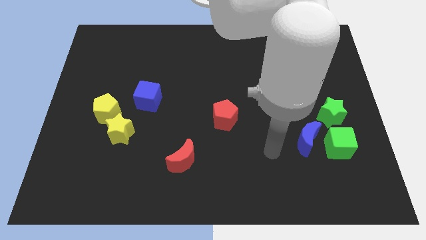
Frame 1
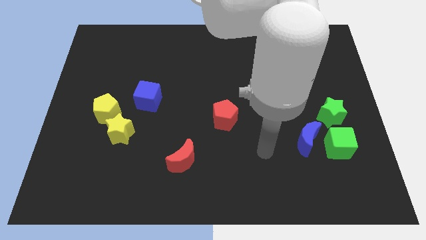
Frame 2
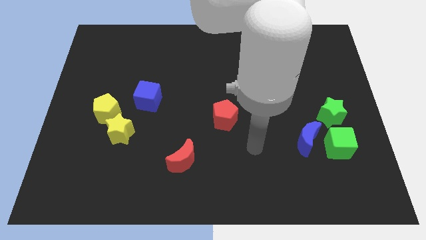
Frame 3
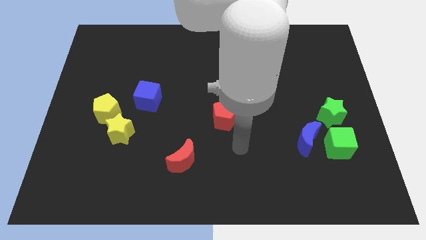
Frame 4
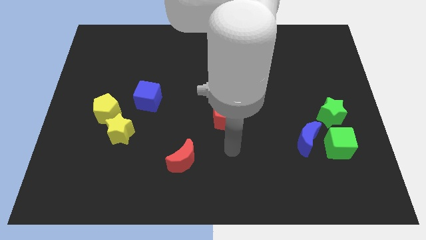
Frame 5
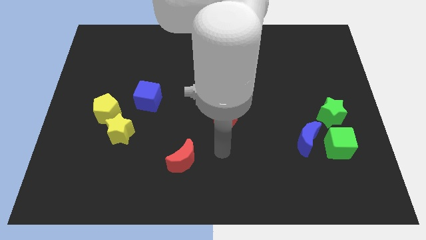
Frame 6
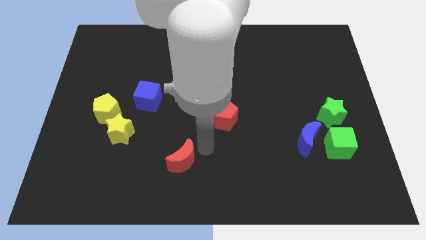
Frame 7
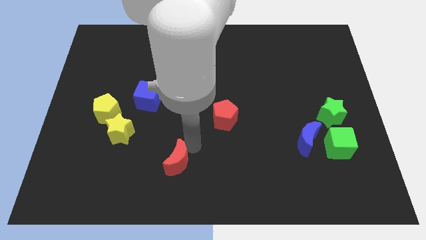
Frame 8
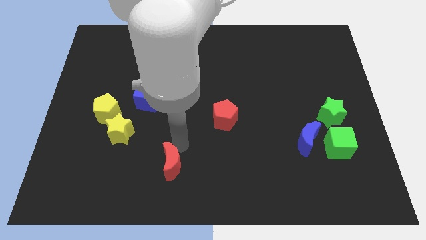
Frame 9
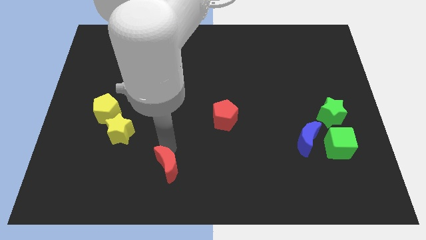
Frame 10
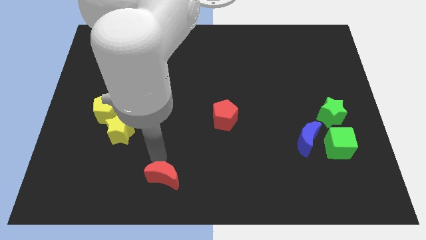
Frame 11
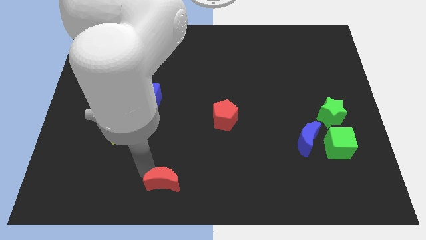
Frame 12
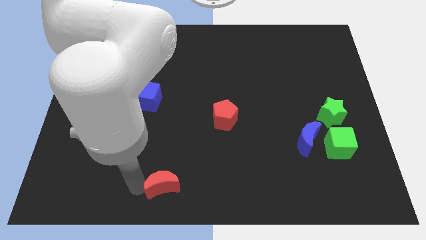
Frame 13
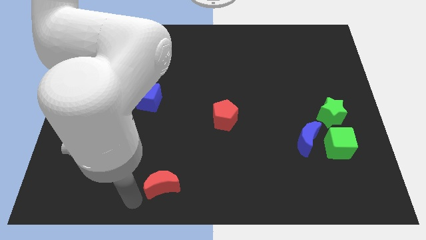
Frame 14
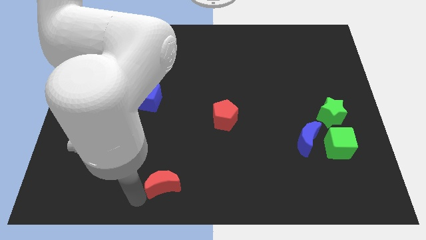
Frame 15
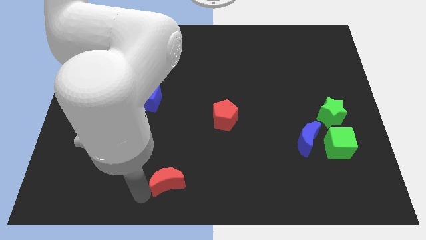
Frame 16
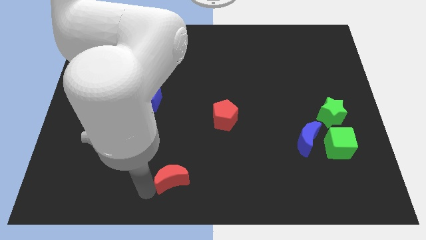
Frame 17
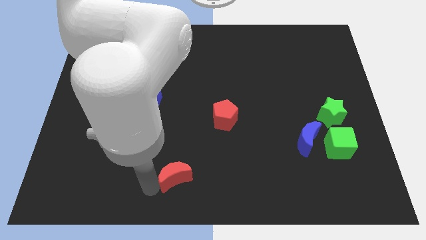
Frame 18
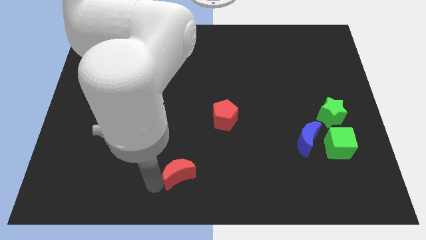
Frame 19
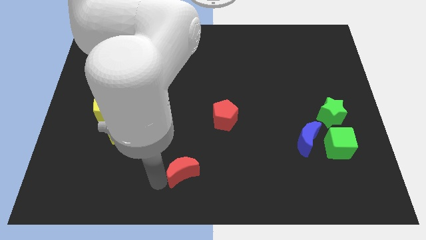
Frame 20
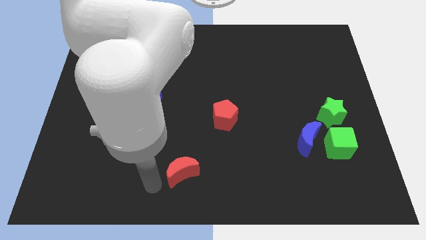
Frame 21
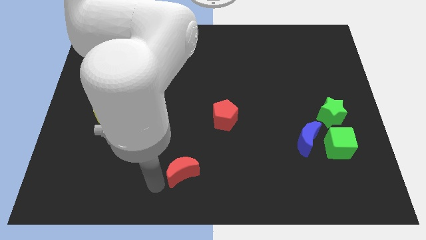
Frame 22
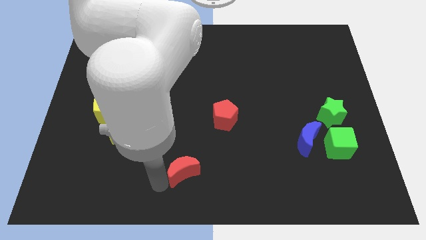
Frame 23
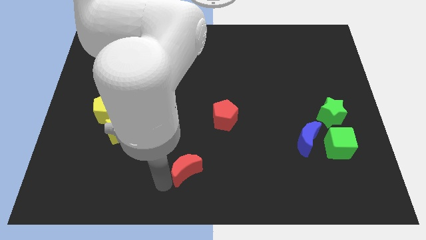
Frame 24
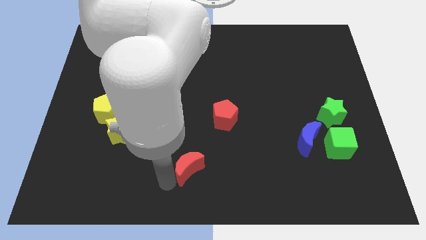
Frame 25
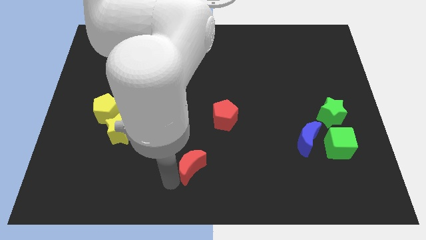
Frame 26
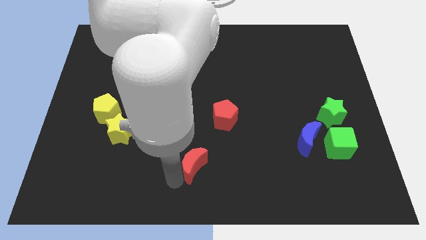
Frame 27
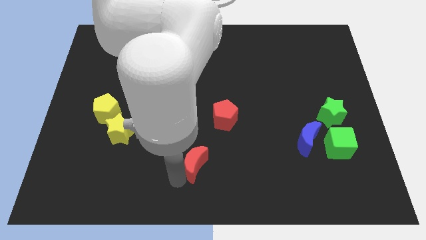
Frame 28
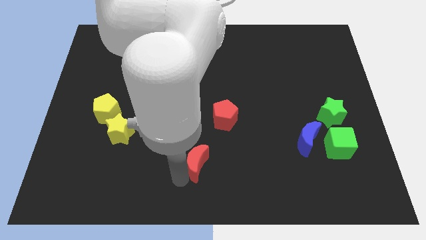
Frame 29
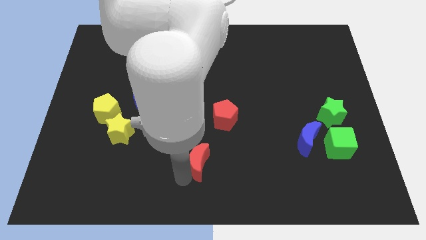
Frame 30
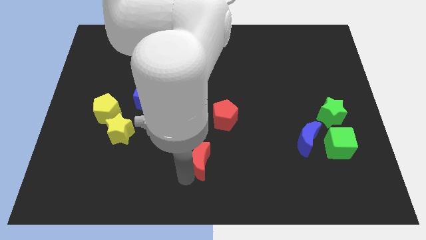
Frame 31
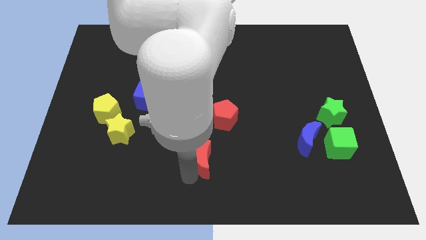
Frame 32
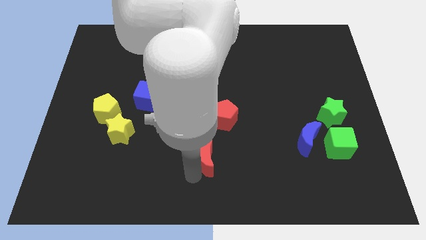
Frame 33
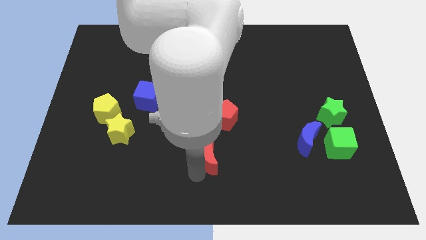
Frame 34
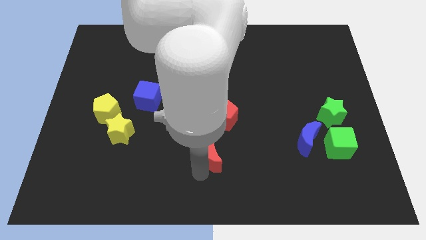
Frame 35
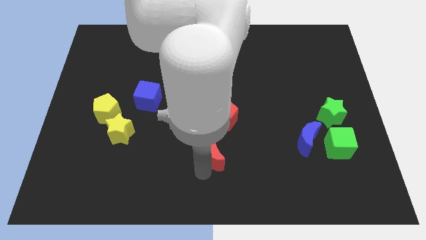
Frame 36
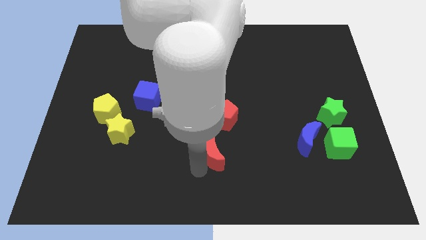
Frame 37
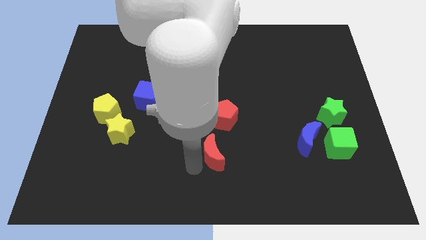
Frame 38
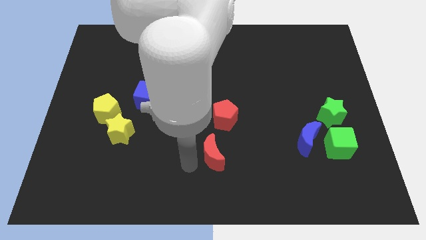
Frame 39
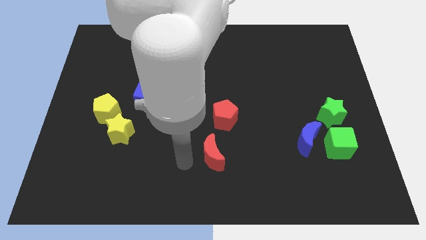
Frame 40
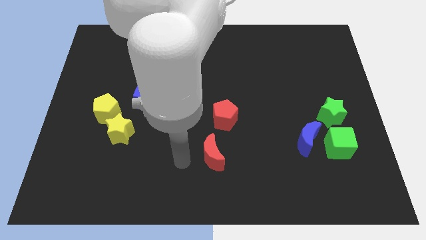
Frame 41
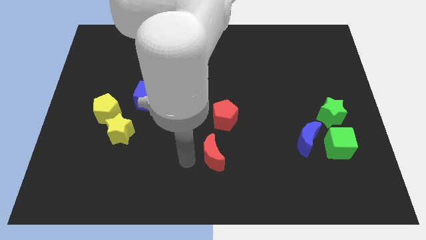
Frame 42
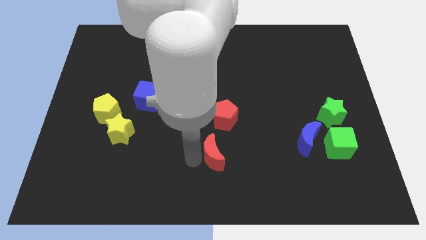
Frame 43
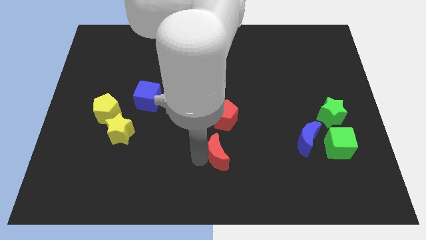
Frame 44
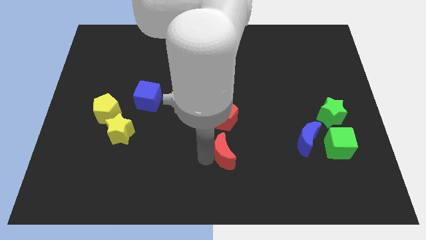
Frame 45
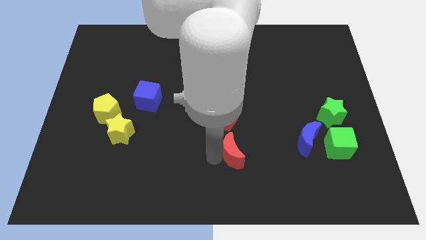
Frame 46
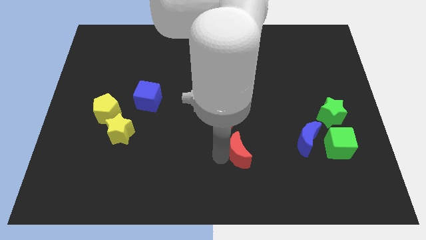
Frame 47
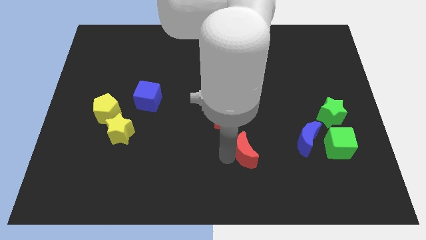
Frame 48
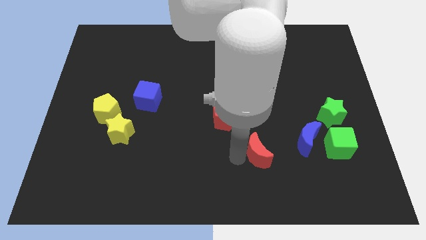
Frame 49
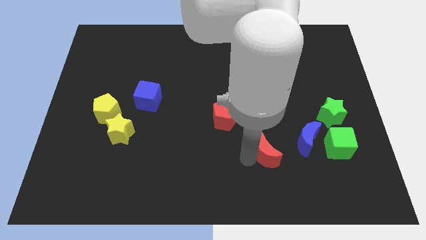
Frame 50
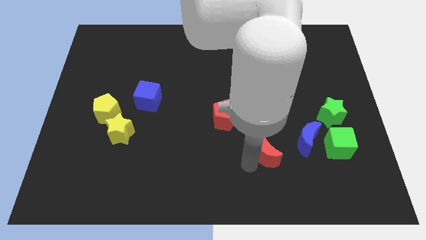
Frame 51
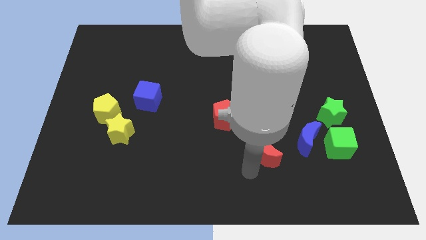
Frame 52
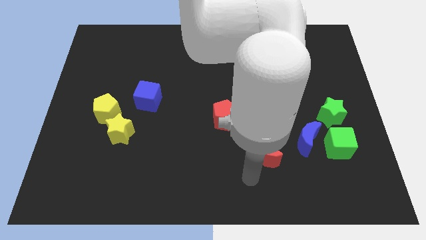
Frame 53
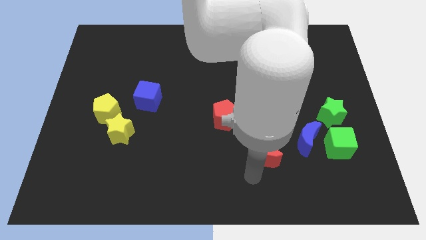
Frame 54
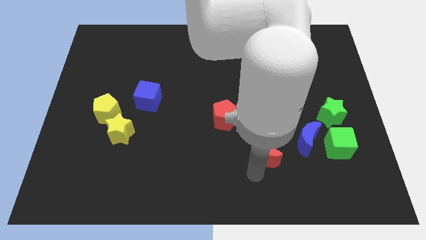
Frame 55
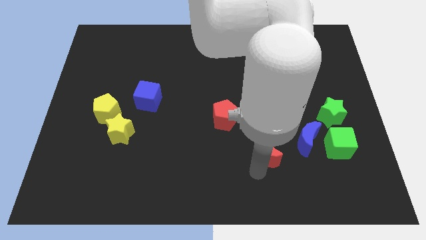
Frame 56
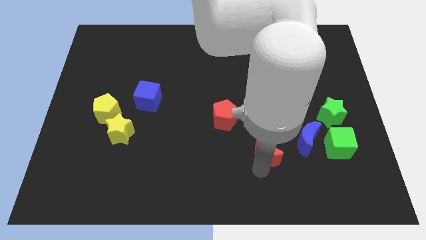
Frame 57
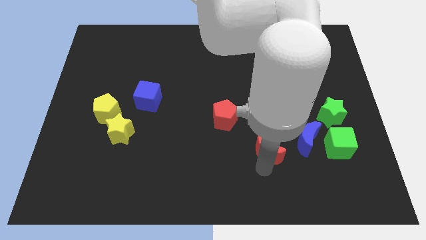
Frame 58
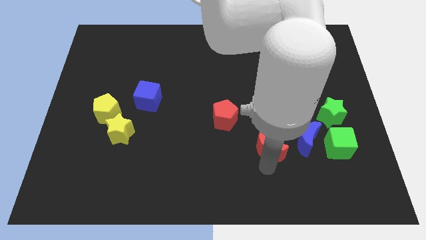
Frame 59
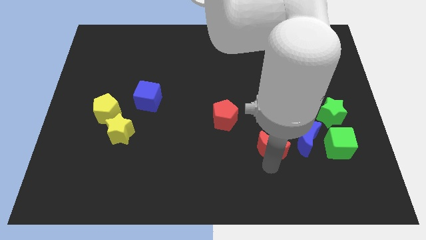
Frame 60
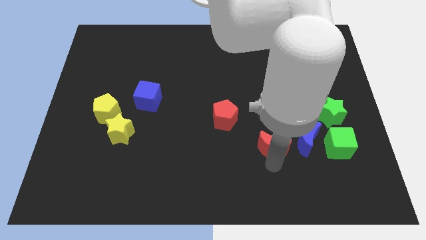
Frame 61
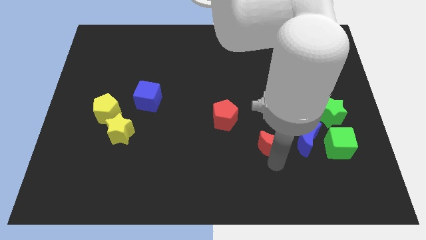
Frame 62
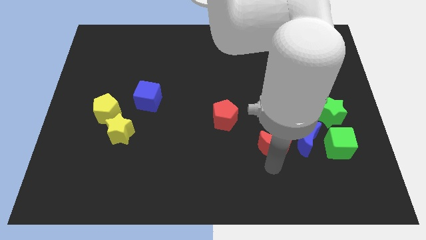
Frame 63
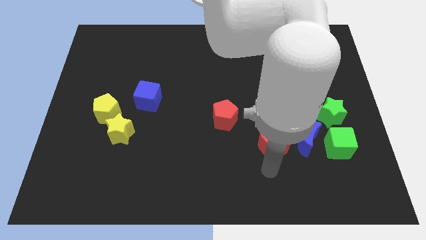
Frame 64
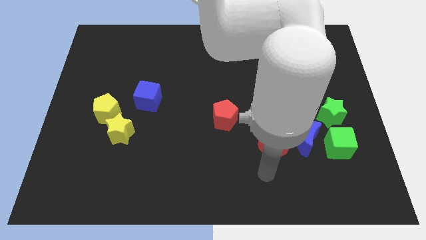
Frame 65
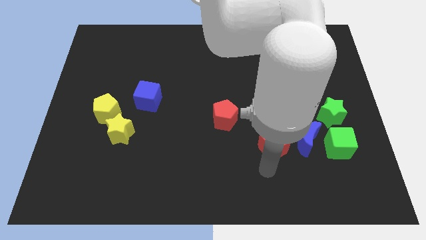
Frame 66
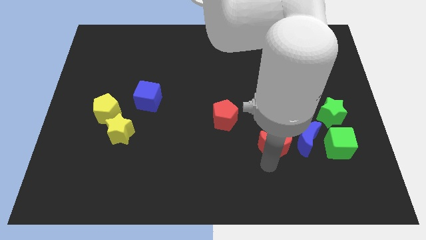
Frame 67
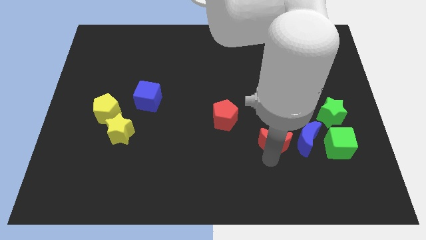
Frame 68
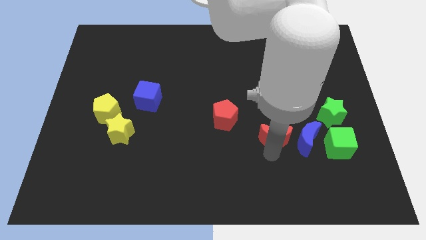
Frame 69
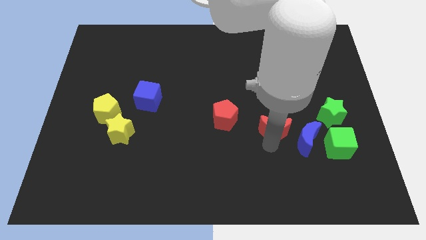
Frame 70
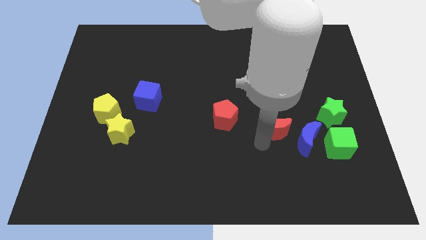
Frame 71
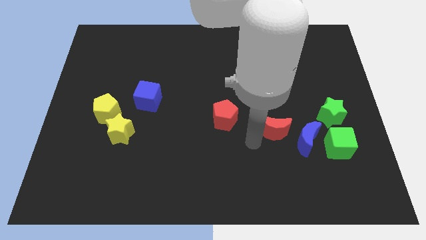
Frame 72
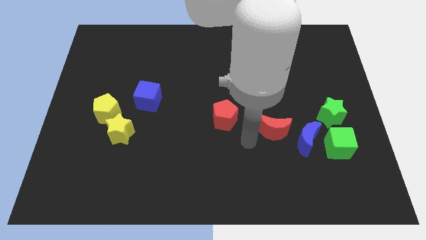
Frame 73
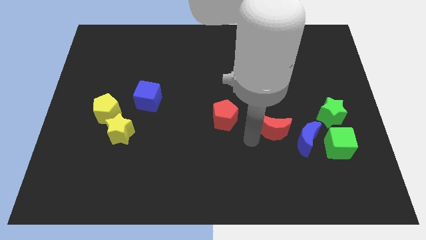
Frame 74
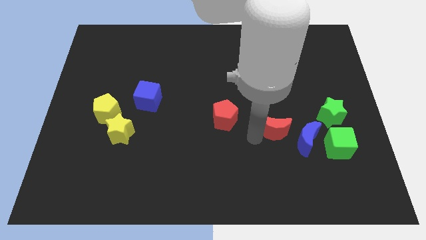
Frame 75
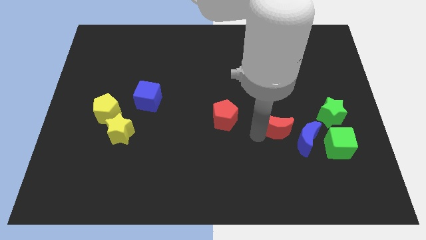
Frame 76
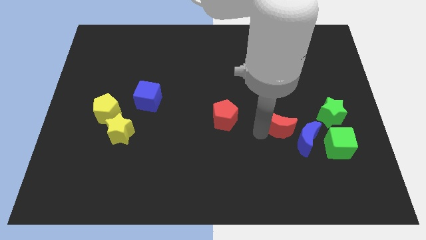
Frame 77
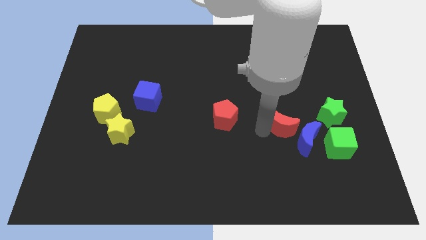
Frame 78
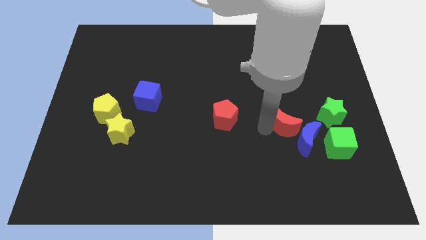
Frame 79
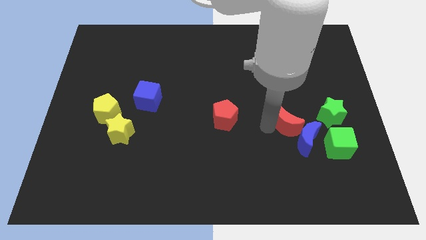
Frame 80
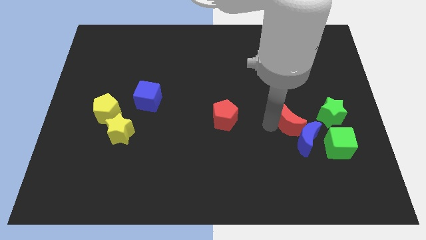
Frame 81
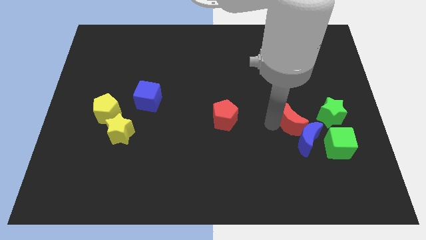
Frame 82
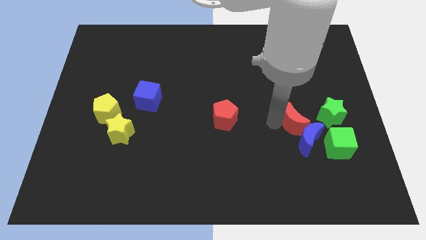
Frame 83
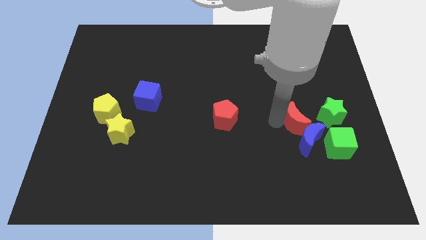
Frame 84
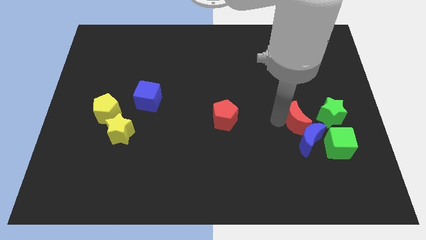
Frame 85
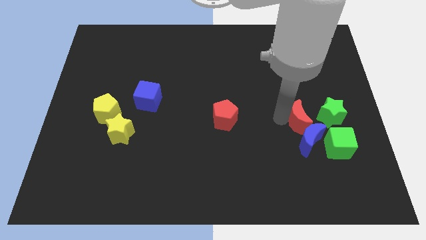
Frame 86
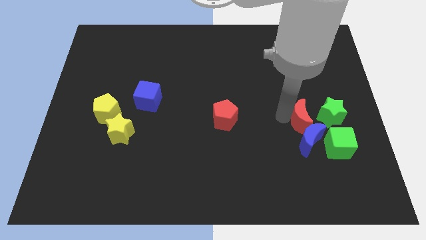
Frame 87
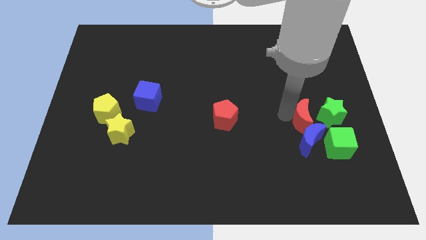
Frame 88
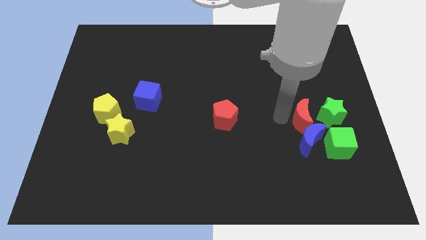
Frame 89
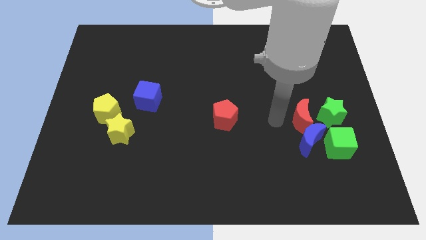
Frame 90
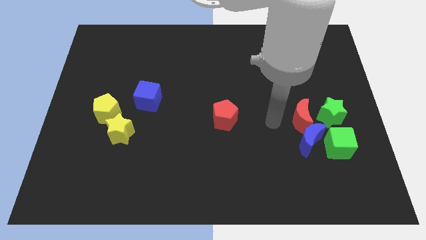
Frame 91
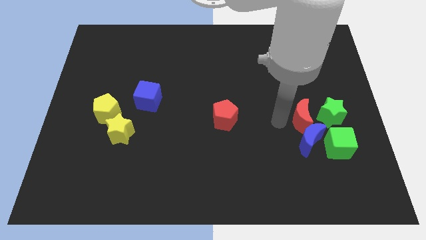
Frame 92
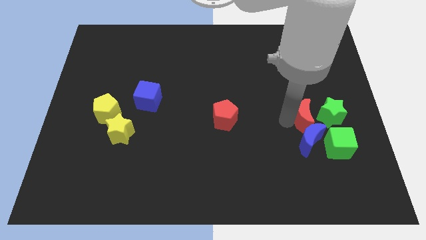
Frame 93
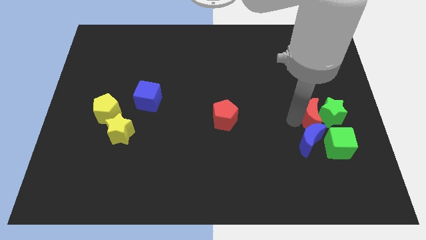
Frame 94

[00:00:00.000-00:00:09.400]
put the red moon towards the green star
